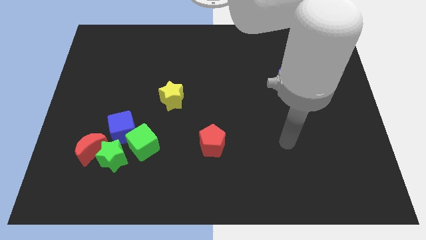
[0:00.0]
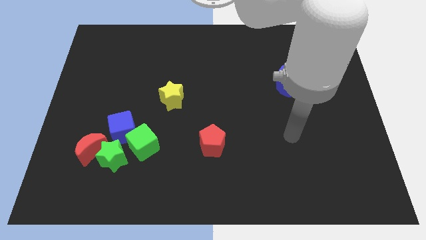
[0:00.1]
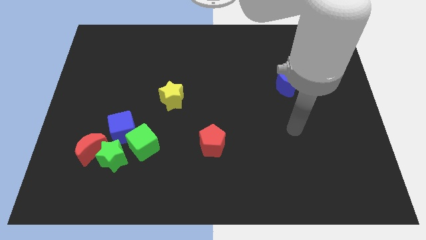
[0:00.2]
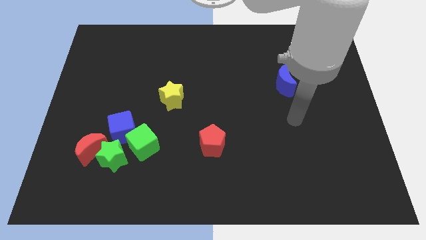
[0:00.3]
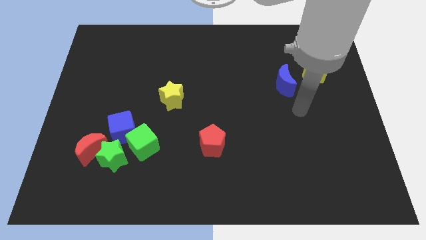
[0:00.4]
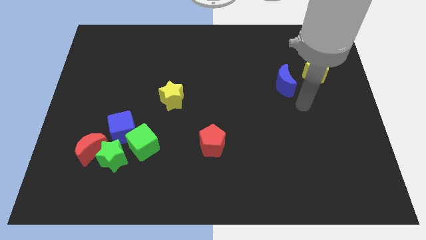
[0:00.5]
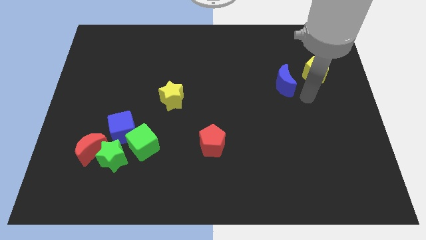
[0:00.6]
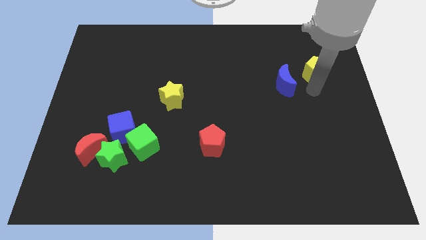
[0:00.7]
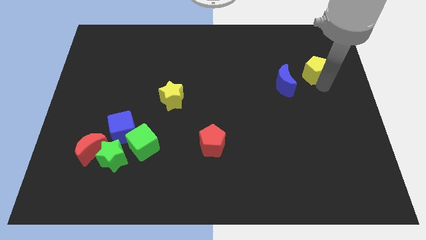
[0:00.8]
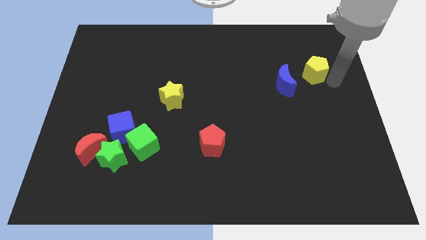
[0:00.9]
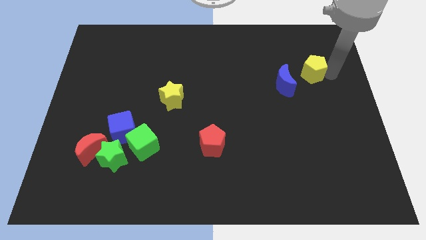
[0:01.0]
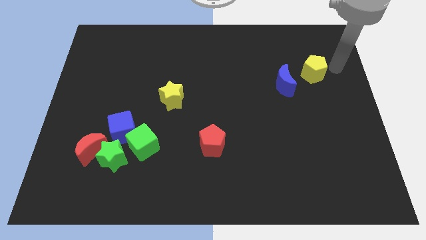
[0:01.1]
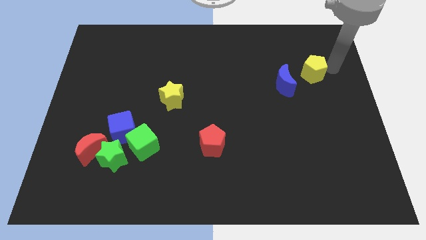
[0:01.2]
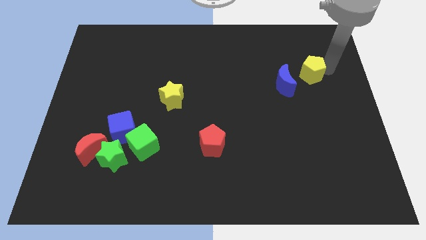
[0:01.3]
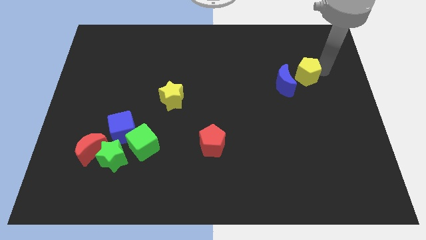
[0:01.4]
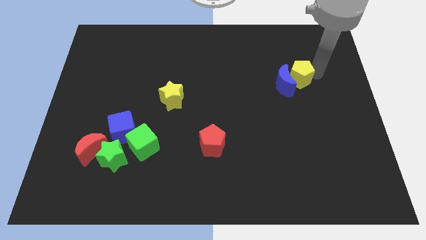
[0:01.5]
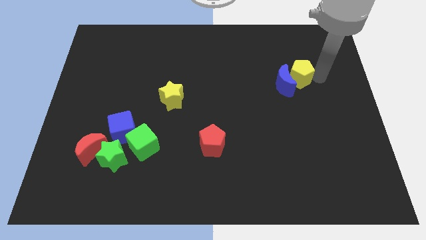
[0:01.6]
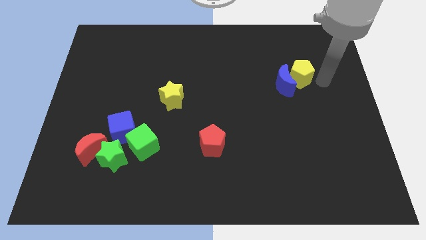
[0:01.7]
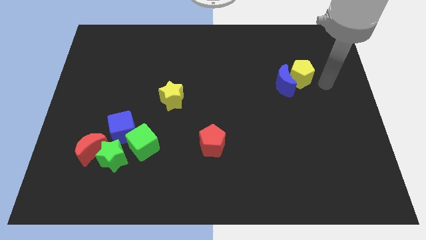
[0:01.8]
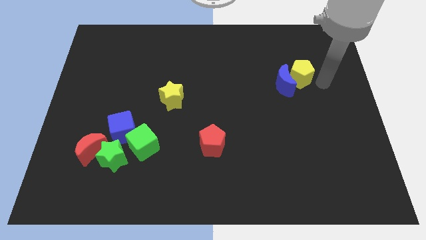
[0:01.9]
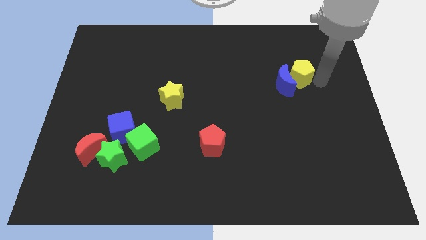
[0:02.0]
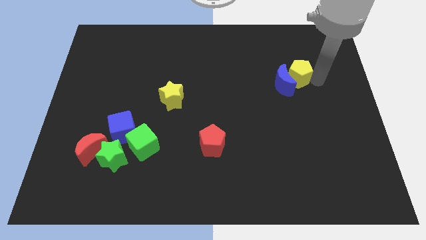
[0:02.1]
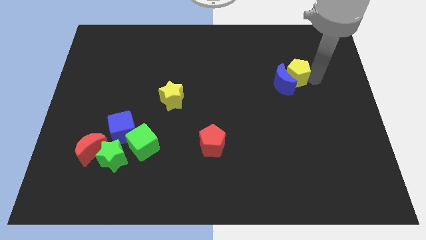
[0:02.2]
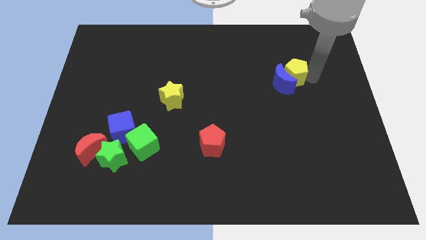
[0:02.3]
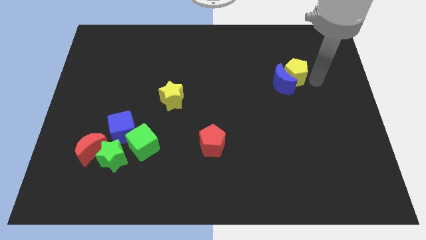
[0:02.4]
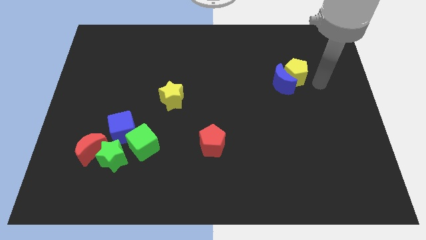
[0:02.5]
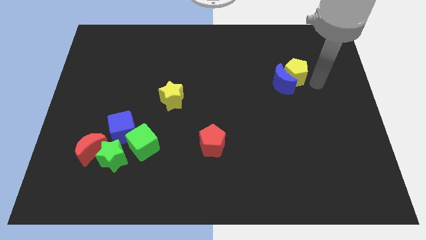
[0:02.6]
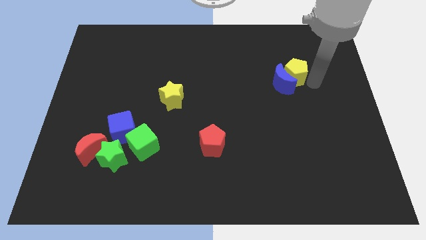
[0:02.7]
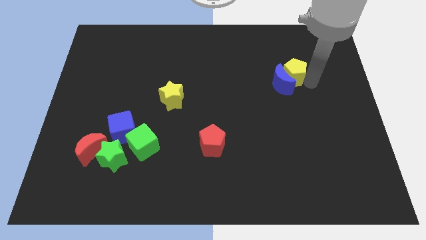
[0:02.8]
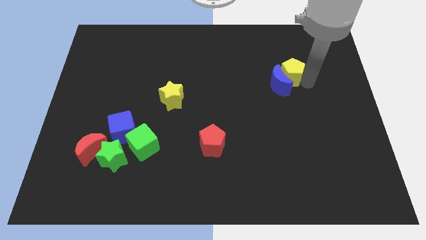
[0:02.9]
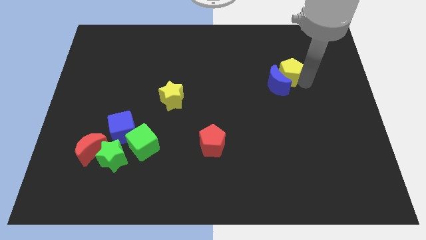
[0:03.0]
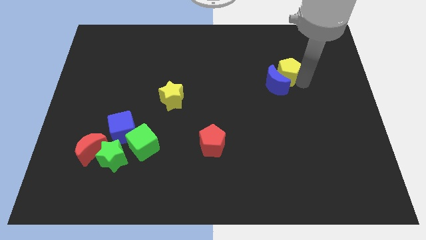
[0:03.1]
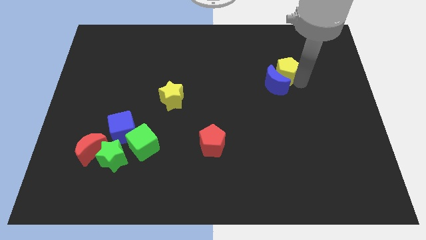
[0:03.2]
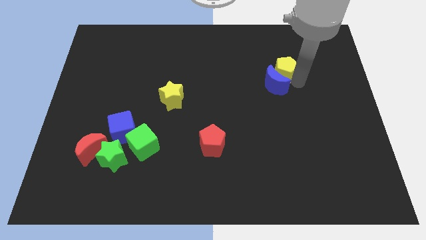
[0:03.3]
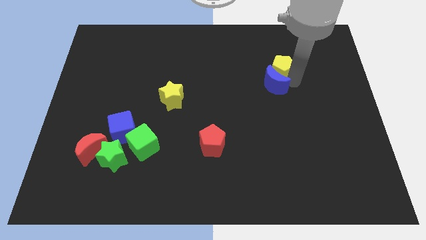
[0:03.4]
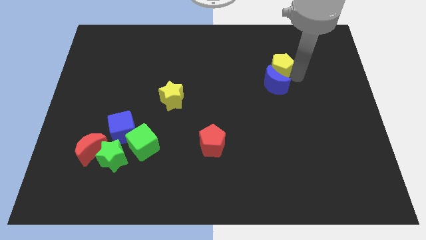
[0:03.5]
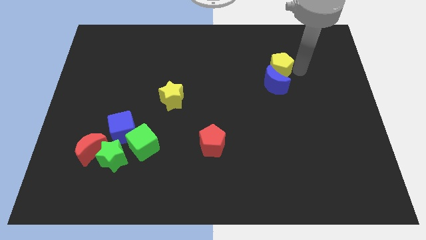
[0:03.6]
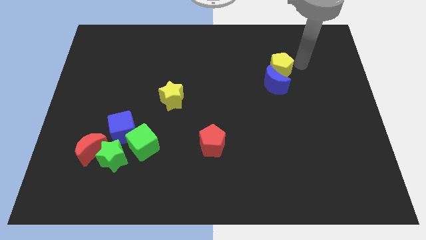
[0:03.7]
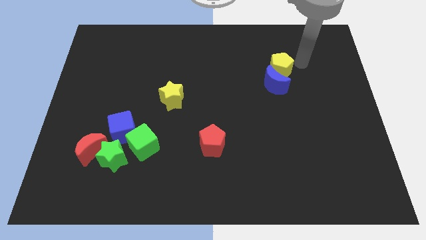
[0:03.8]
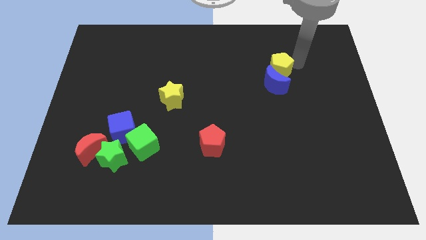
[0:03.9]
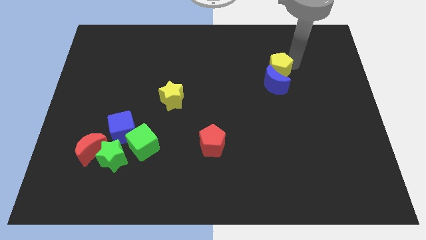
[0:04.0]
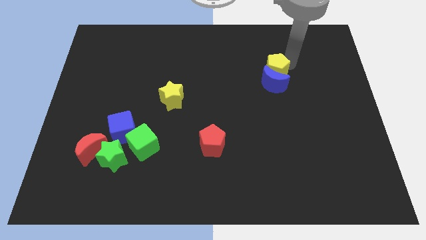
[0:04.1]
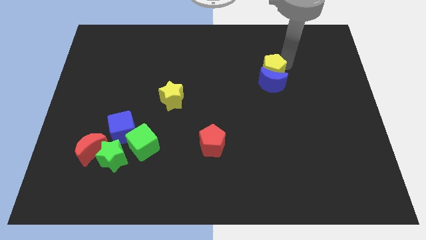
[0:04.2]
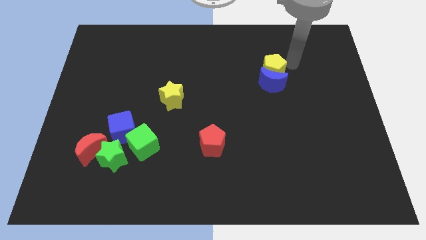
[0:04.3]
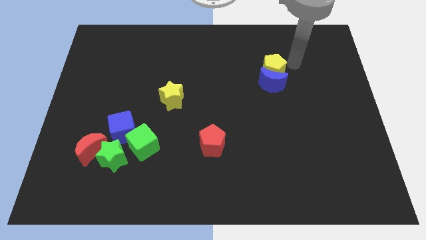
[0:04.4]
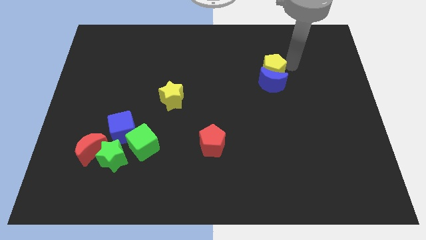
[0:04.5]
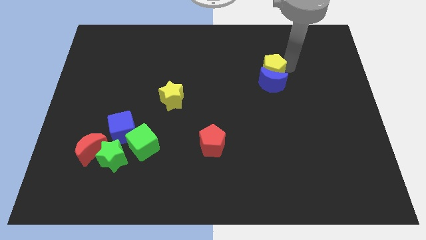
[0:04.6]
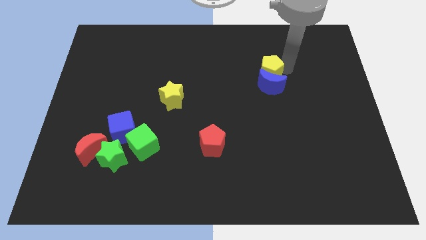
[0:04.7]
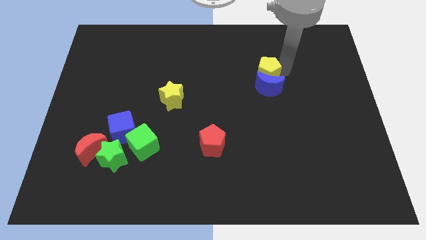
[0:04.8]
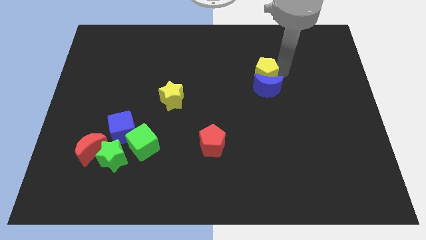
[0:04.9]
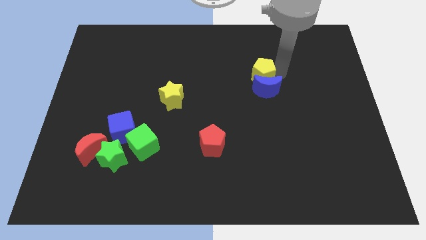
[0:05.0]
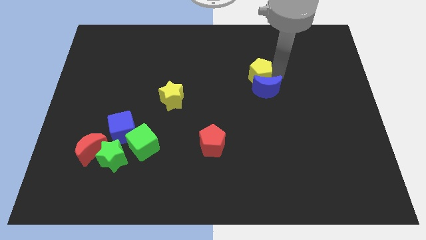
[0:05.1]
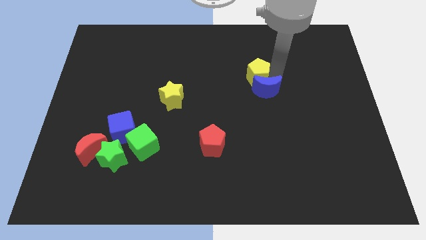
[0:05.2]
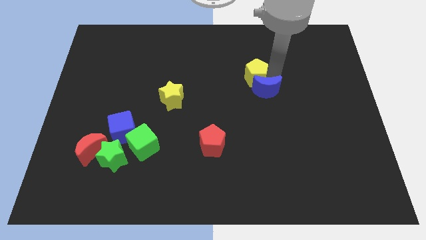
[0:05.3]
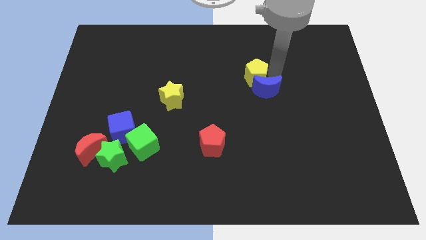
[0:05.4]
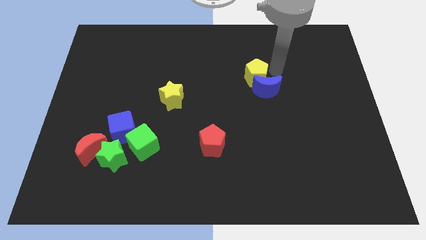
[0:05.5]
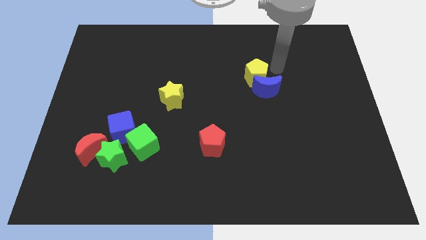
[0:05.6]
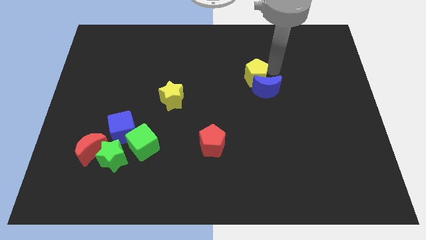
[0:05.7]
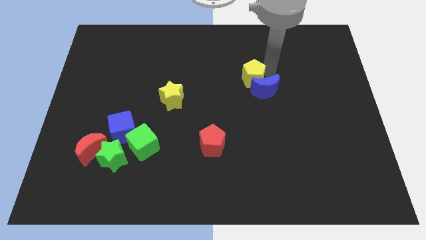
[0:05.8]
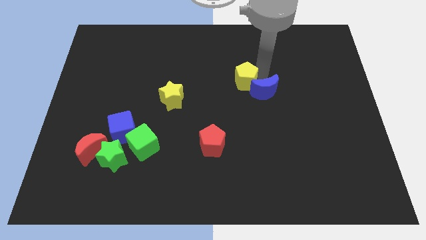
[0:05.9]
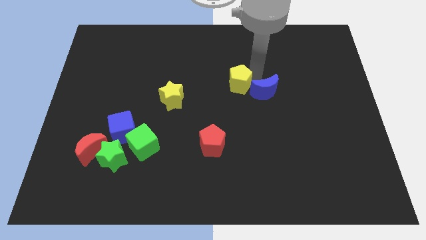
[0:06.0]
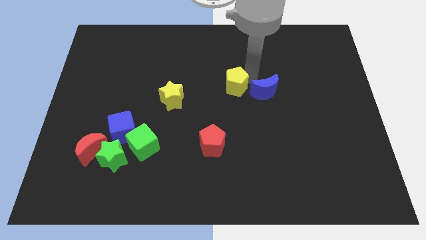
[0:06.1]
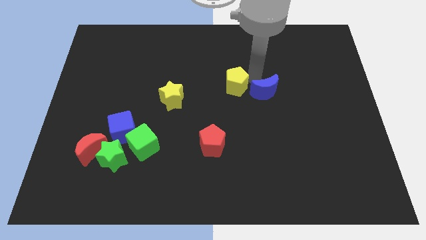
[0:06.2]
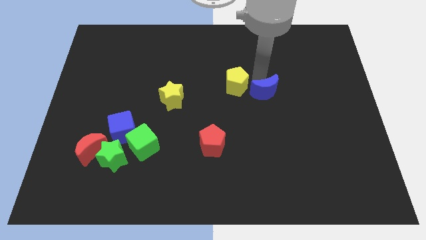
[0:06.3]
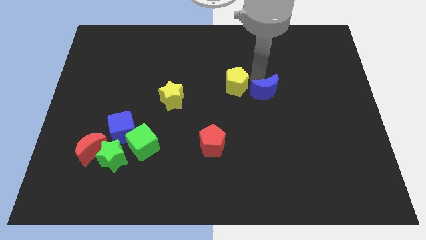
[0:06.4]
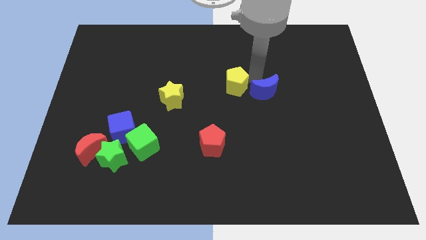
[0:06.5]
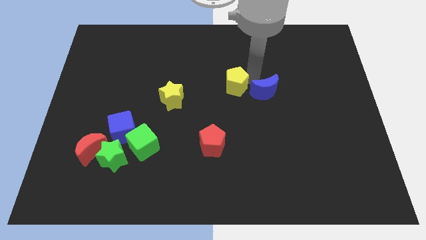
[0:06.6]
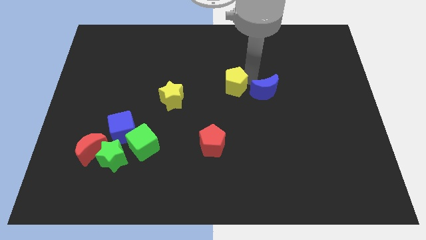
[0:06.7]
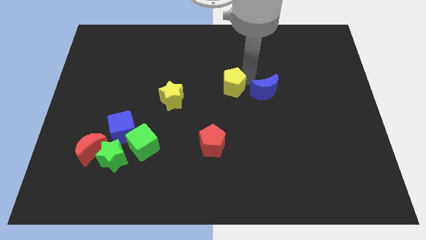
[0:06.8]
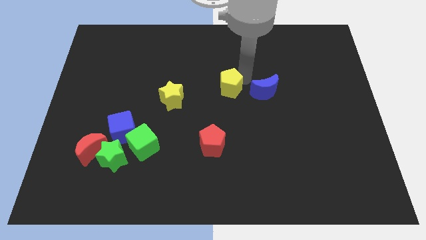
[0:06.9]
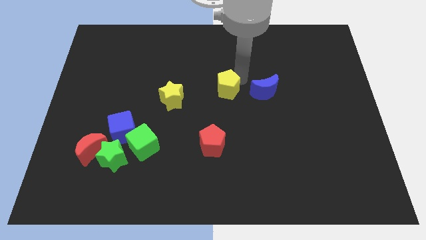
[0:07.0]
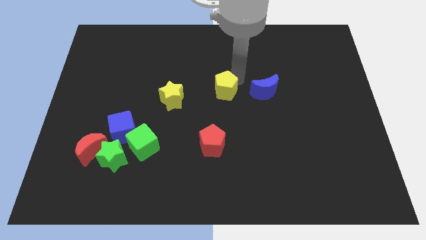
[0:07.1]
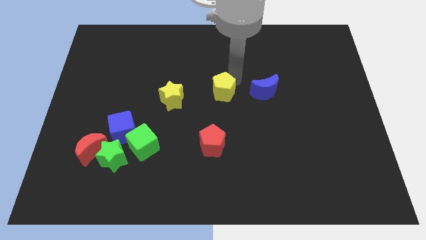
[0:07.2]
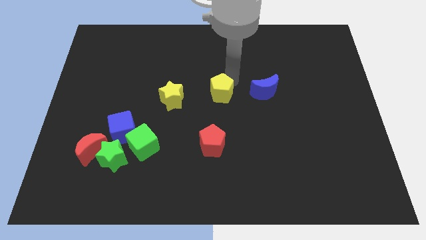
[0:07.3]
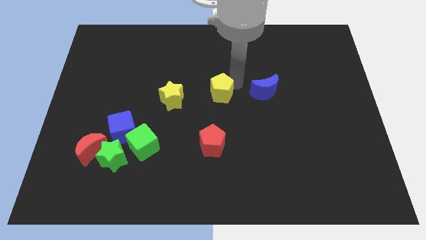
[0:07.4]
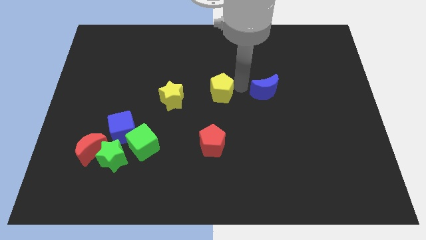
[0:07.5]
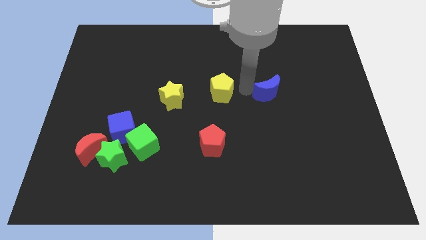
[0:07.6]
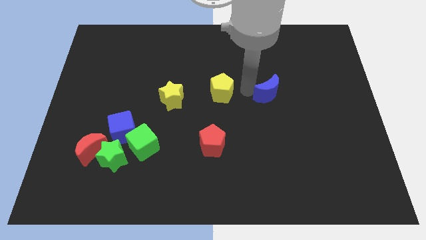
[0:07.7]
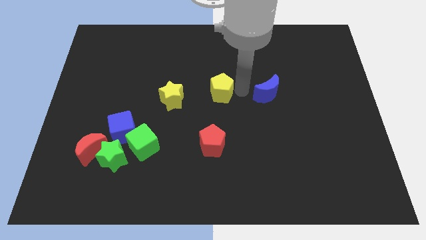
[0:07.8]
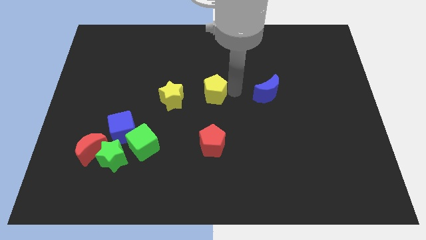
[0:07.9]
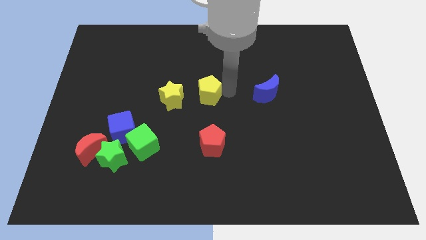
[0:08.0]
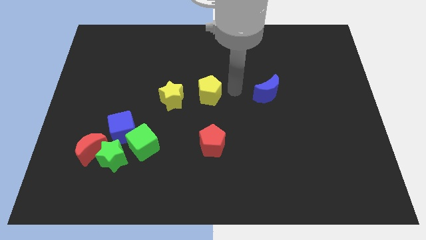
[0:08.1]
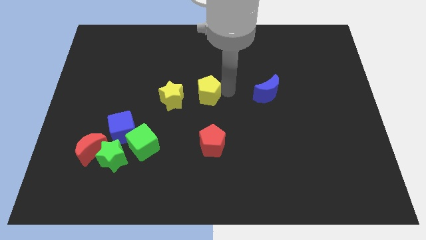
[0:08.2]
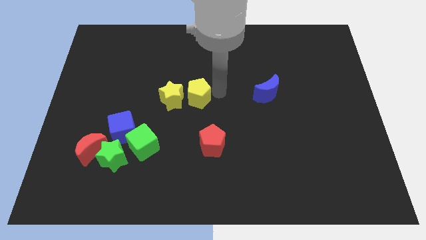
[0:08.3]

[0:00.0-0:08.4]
slide the yellow pentagon close to the yellow star
